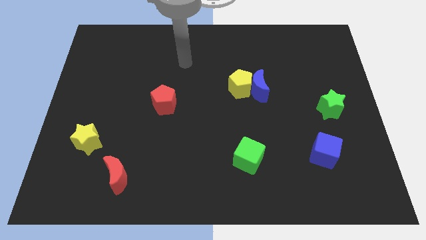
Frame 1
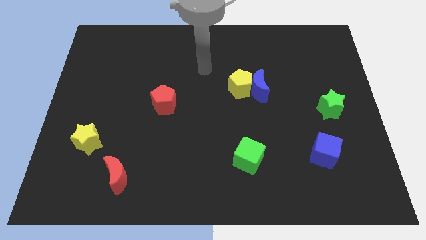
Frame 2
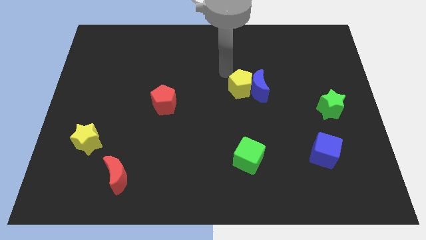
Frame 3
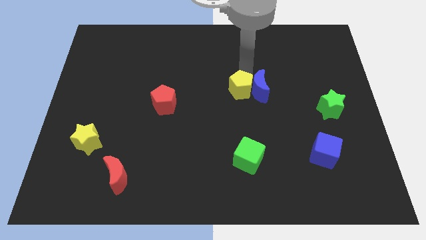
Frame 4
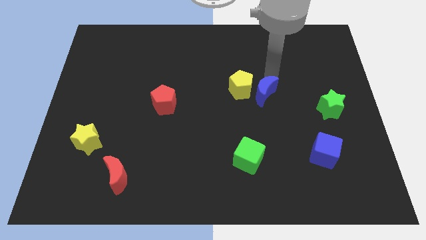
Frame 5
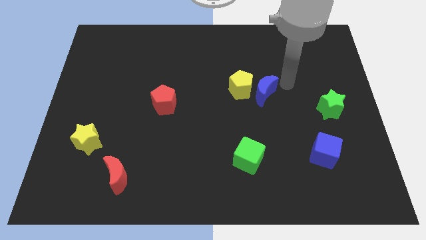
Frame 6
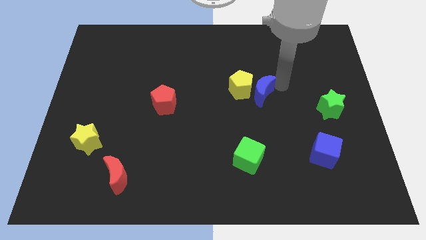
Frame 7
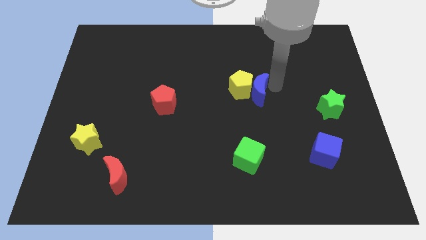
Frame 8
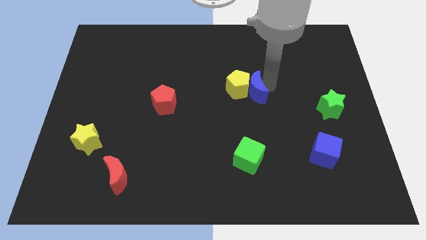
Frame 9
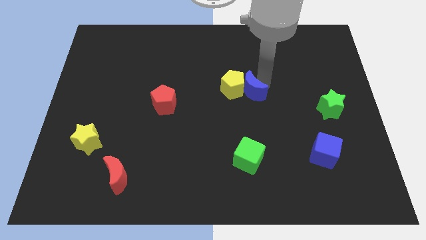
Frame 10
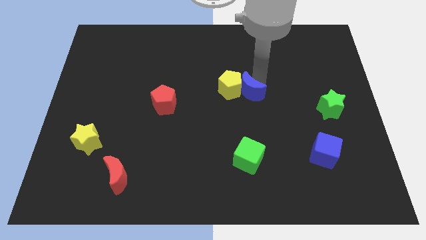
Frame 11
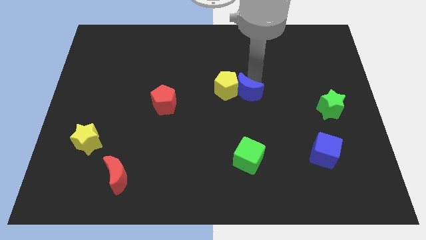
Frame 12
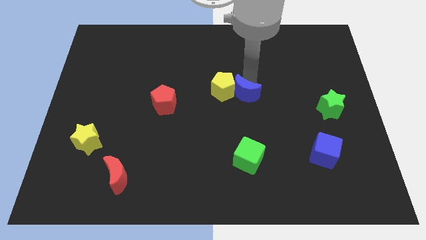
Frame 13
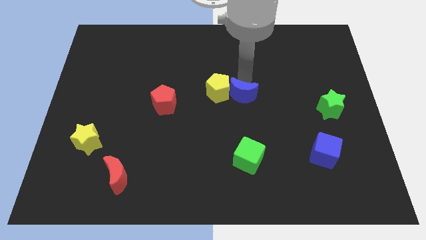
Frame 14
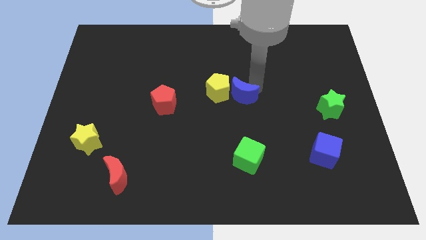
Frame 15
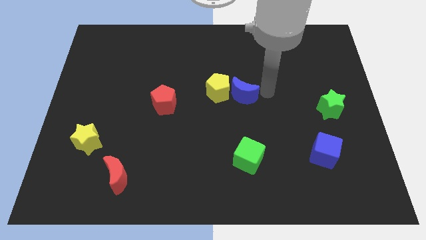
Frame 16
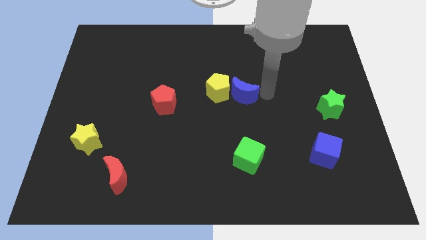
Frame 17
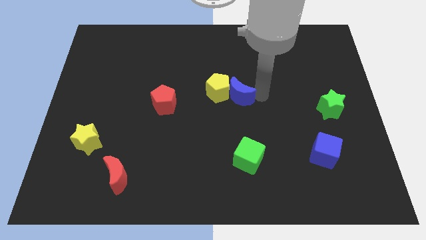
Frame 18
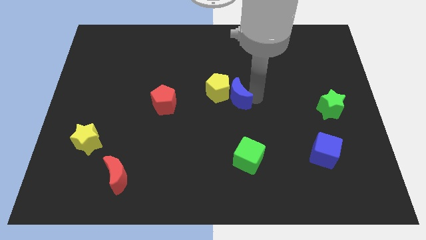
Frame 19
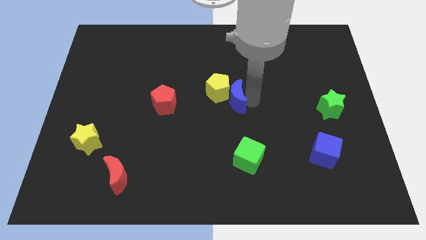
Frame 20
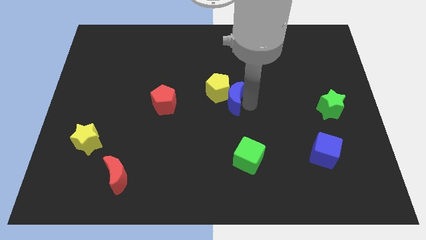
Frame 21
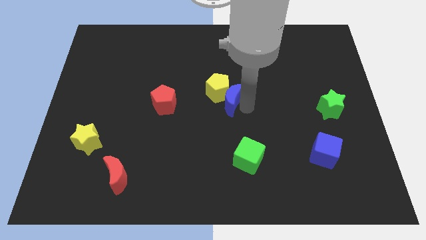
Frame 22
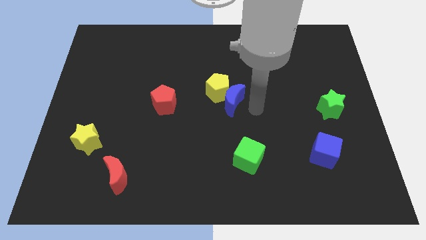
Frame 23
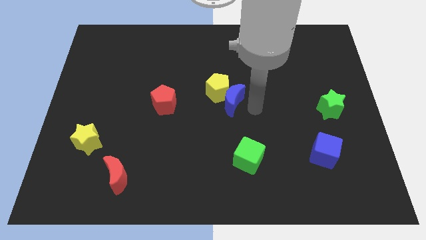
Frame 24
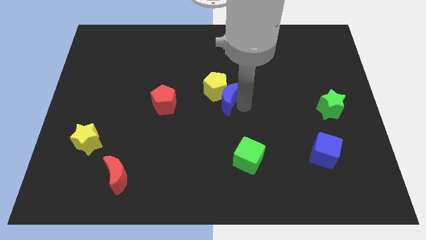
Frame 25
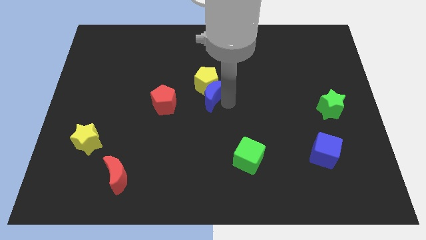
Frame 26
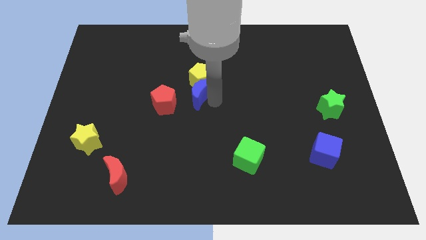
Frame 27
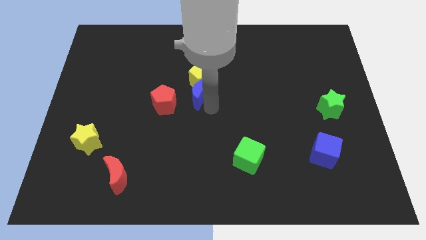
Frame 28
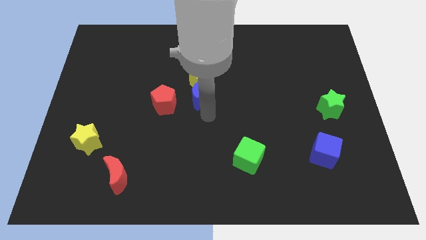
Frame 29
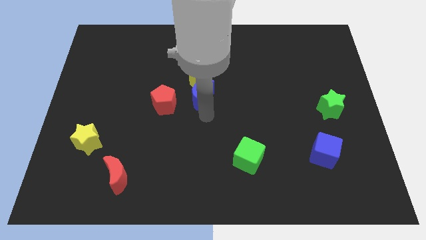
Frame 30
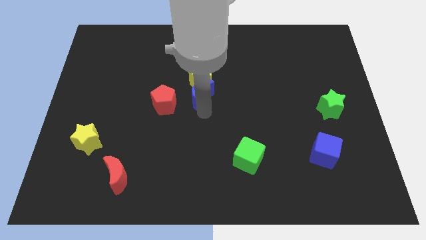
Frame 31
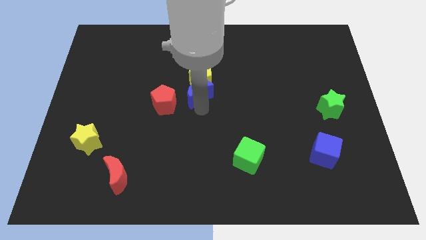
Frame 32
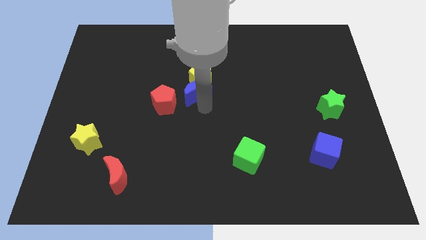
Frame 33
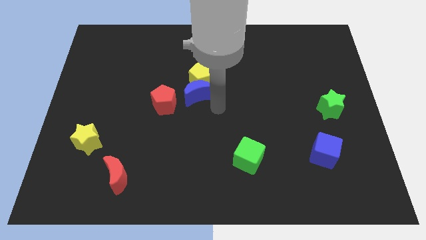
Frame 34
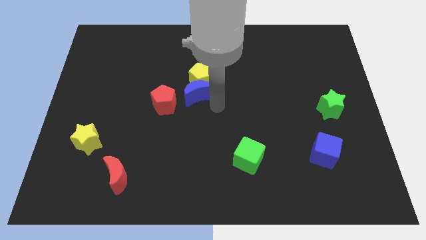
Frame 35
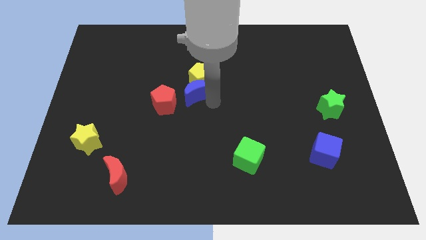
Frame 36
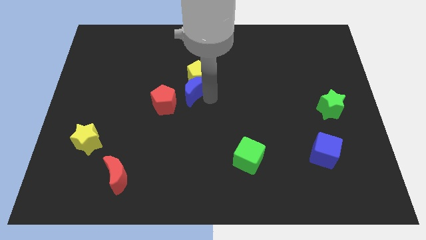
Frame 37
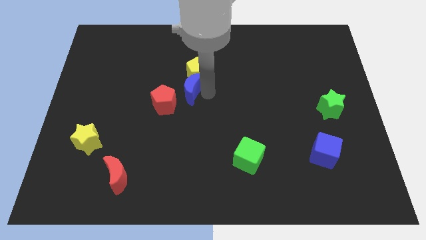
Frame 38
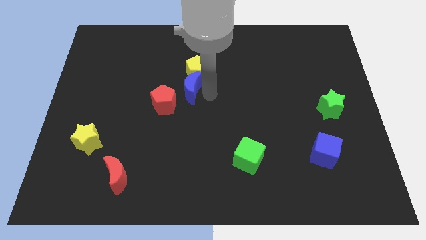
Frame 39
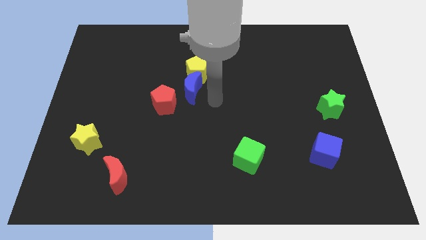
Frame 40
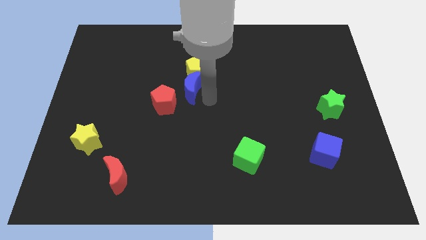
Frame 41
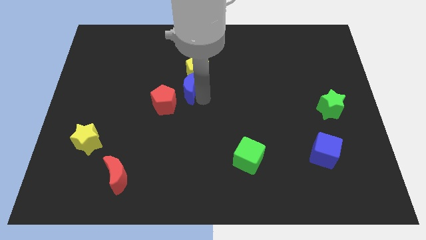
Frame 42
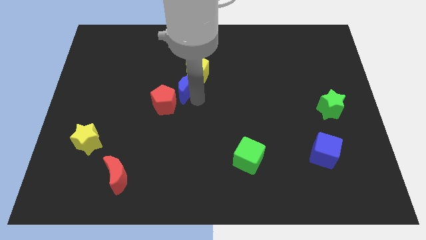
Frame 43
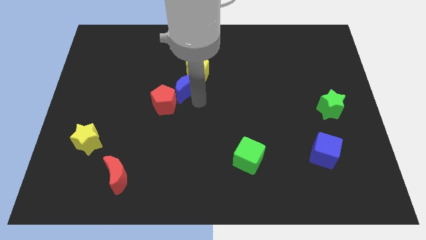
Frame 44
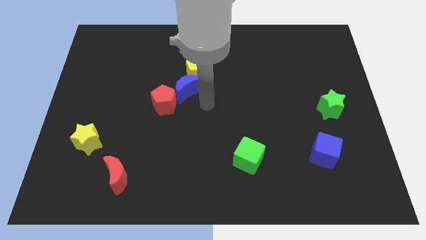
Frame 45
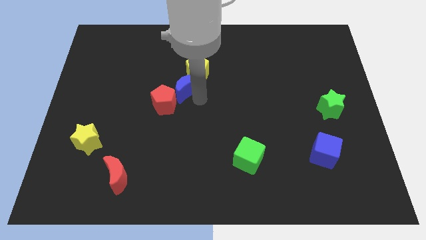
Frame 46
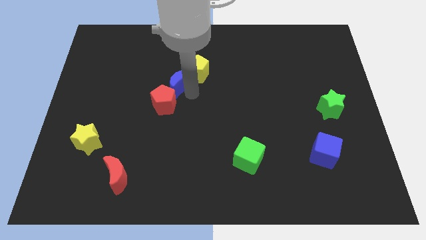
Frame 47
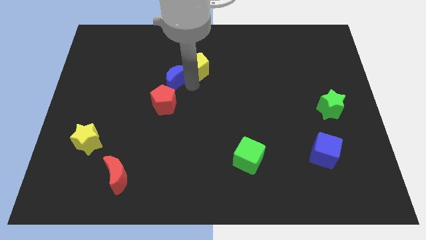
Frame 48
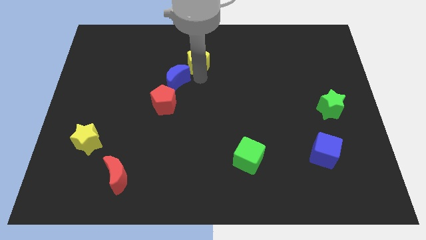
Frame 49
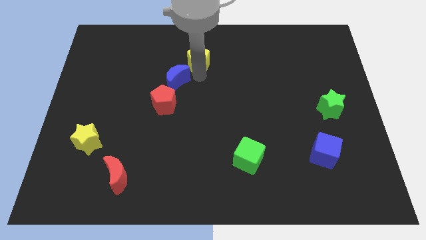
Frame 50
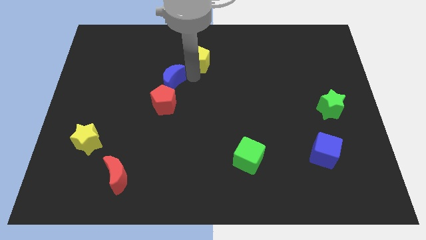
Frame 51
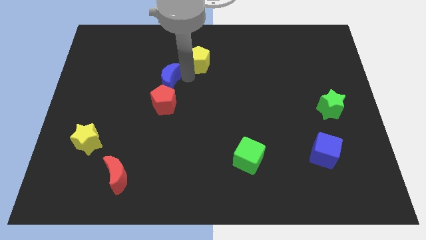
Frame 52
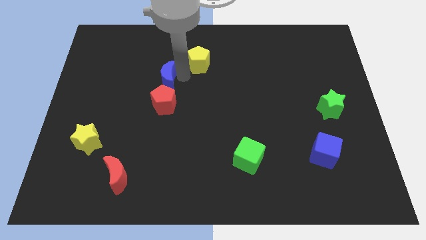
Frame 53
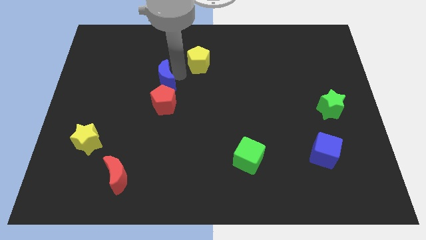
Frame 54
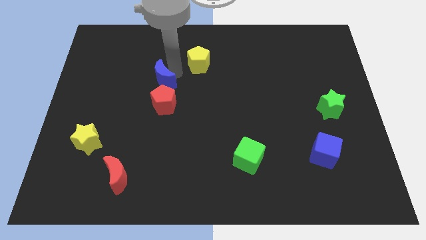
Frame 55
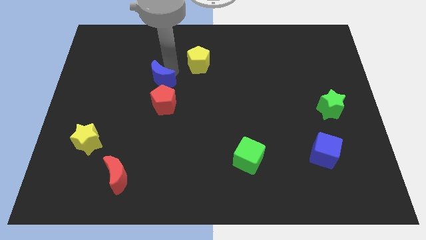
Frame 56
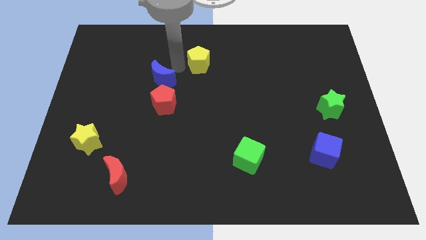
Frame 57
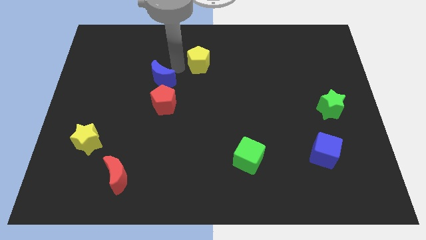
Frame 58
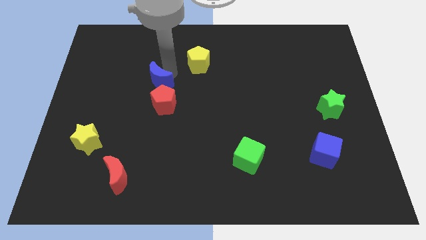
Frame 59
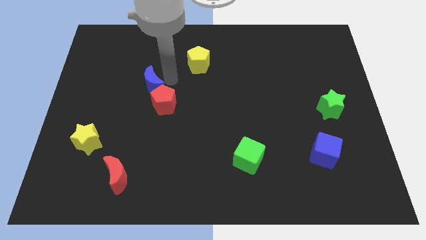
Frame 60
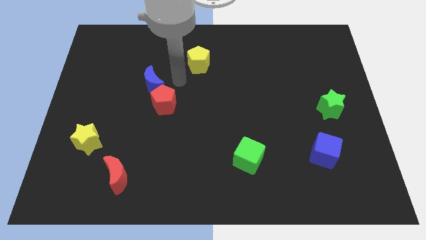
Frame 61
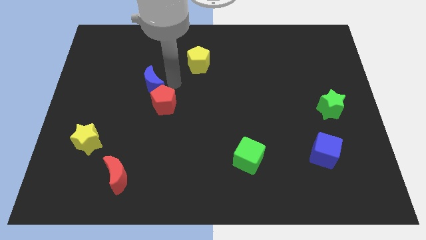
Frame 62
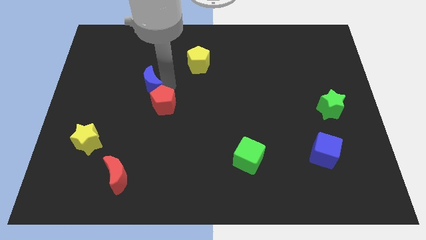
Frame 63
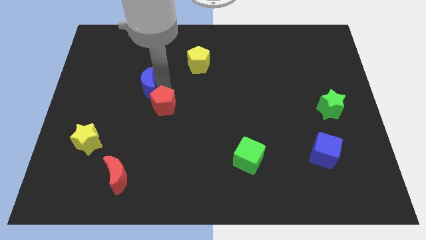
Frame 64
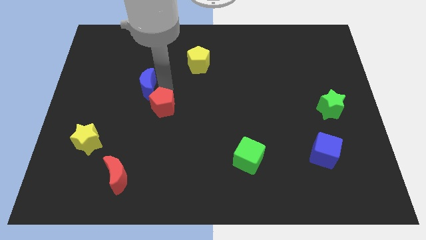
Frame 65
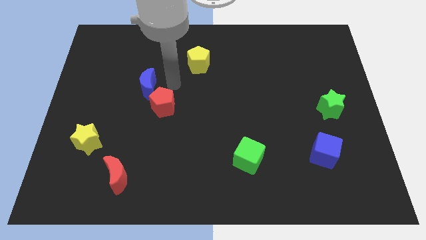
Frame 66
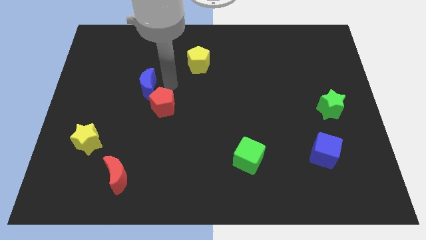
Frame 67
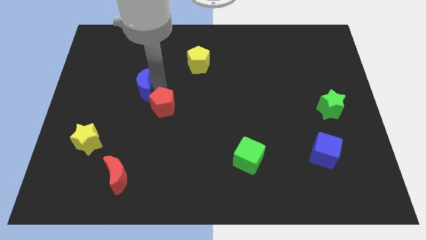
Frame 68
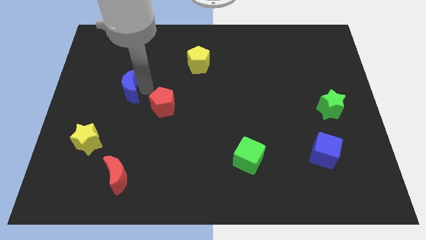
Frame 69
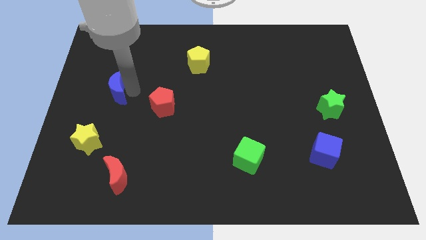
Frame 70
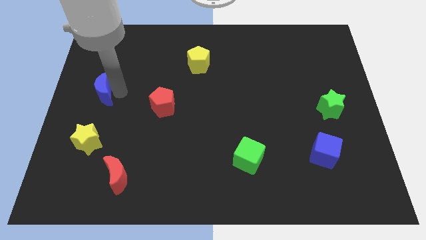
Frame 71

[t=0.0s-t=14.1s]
push the blue moon to the left side of the board
